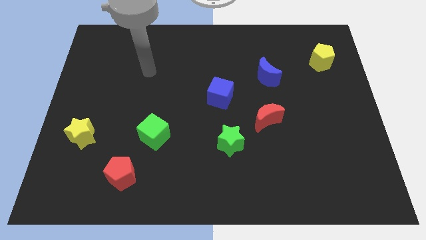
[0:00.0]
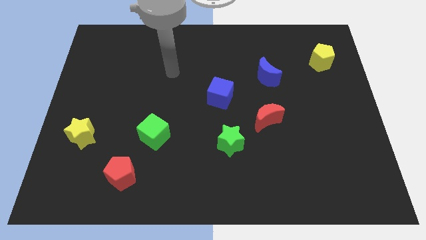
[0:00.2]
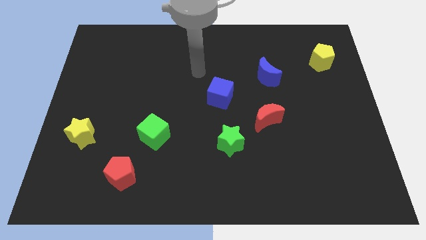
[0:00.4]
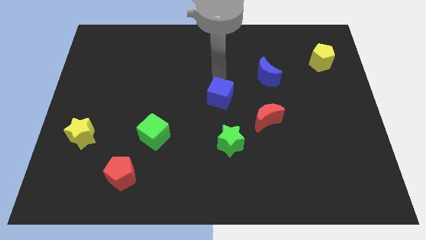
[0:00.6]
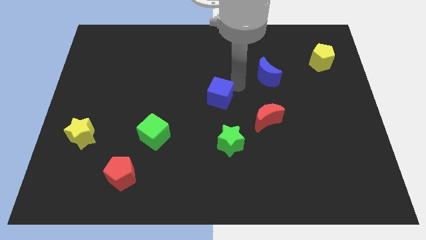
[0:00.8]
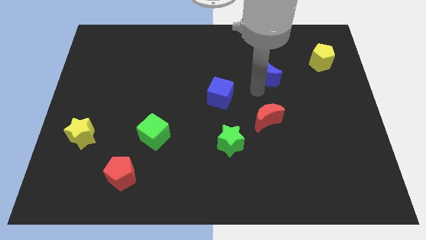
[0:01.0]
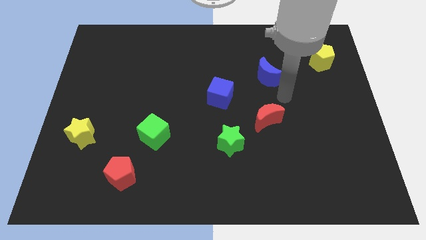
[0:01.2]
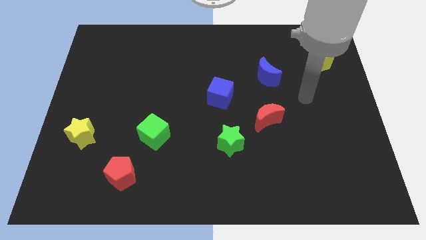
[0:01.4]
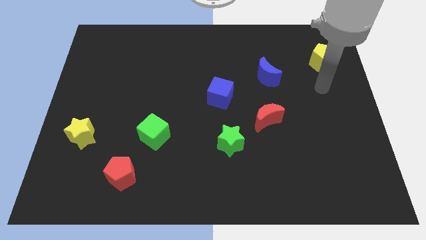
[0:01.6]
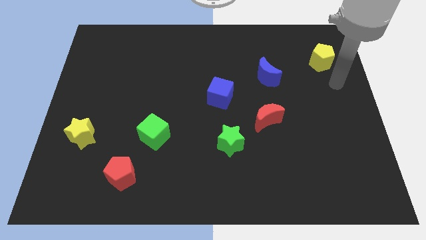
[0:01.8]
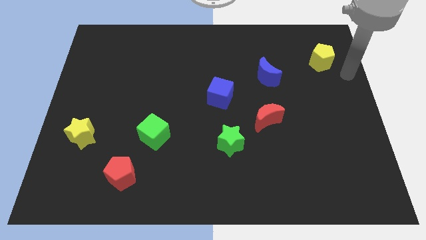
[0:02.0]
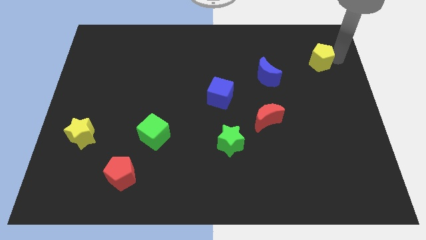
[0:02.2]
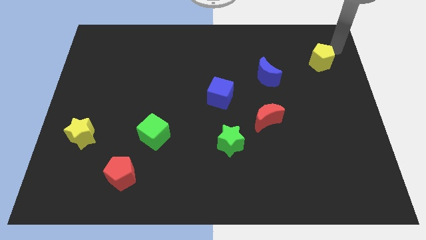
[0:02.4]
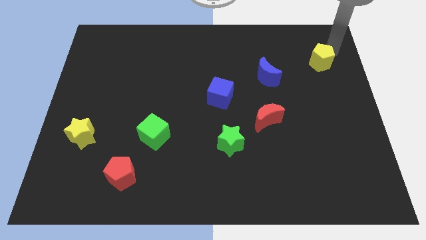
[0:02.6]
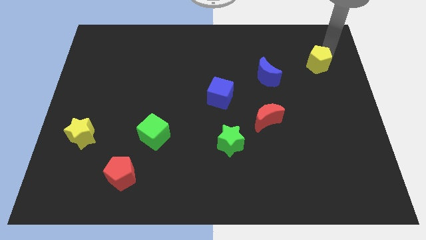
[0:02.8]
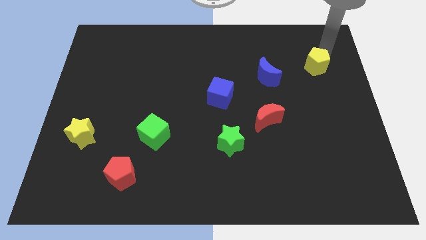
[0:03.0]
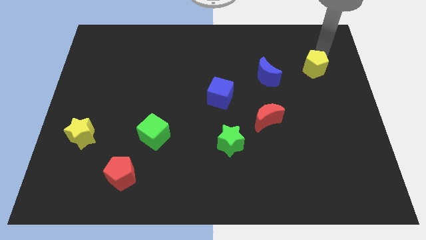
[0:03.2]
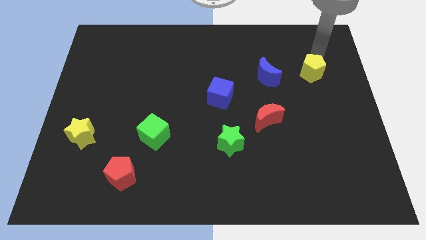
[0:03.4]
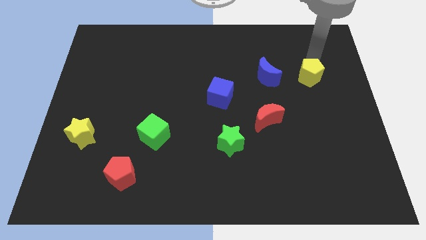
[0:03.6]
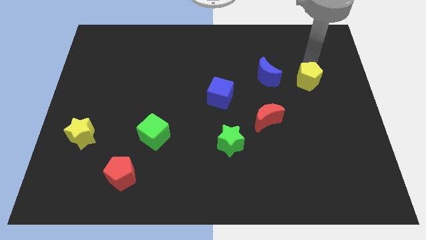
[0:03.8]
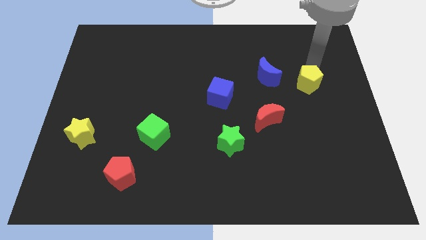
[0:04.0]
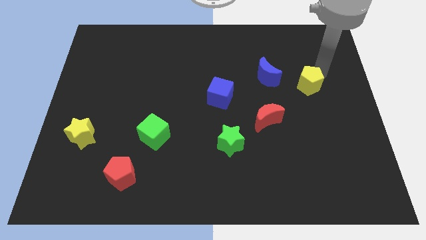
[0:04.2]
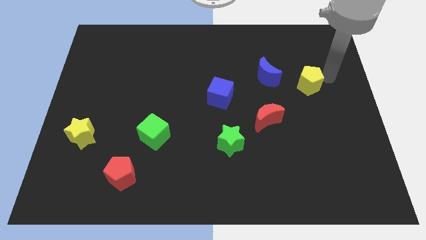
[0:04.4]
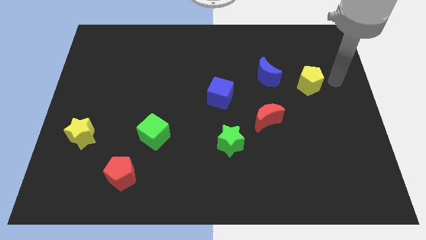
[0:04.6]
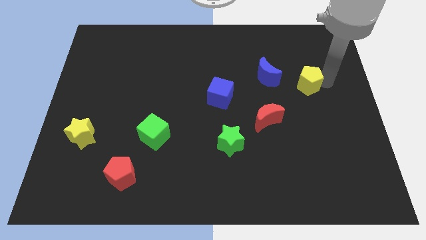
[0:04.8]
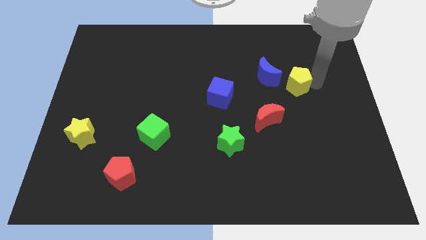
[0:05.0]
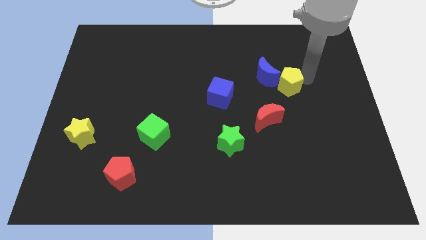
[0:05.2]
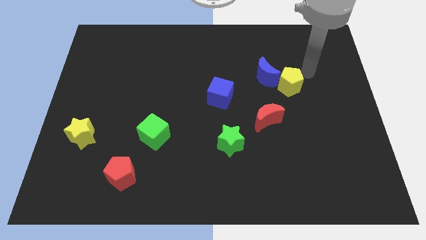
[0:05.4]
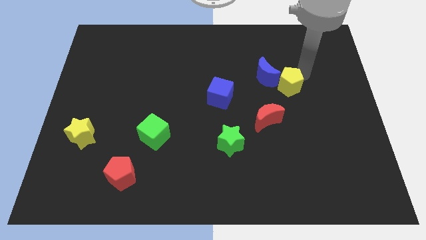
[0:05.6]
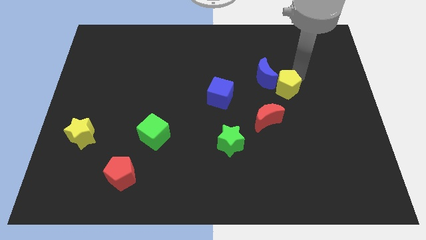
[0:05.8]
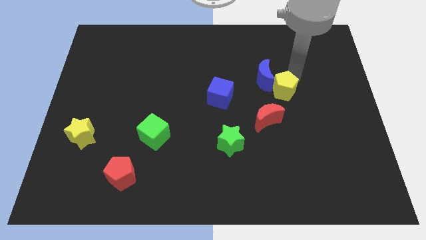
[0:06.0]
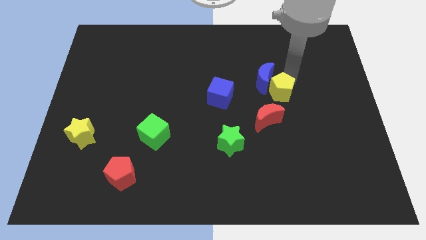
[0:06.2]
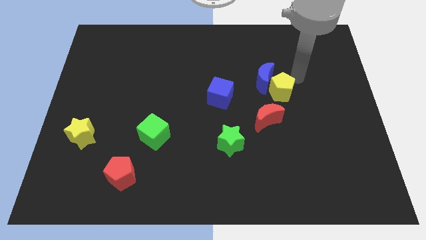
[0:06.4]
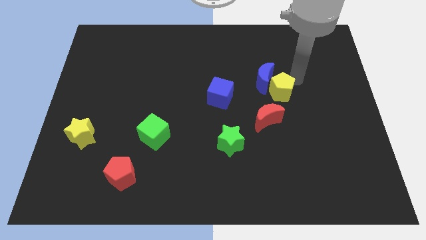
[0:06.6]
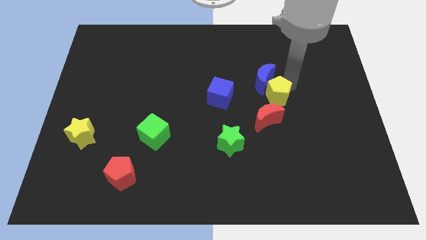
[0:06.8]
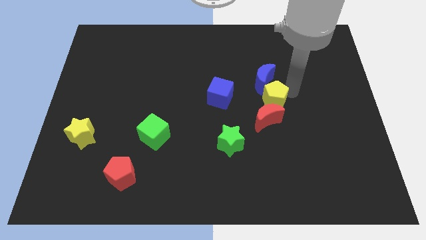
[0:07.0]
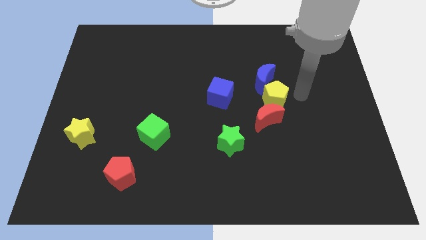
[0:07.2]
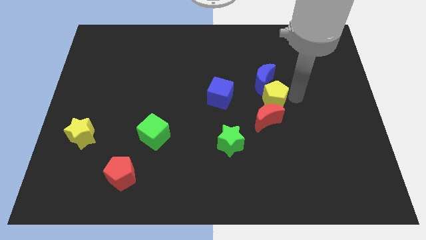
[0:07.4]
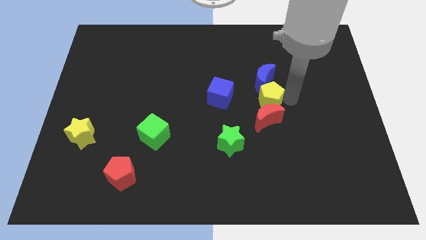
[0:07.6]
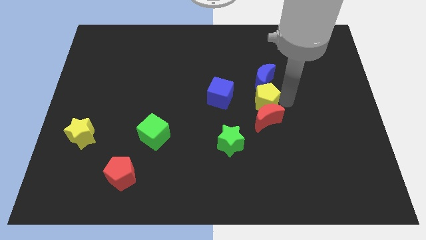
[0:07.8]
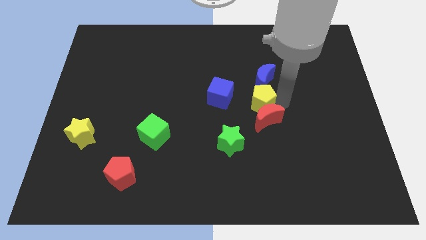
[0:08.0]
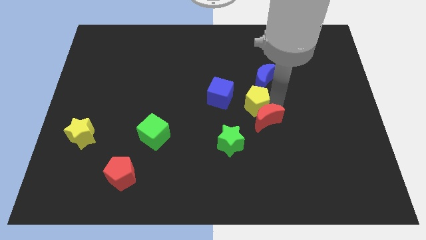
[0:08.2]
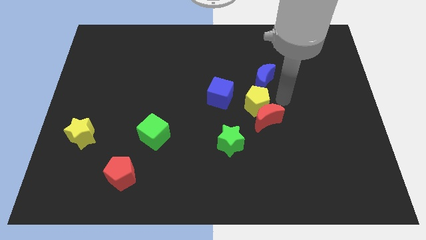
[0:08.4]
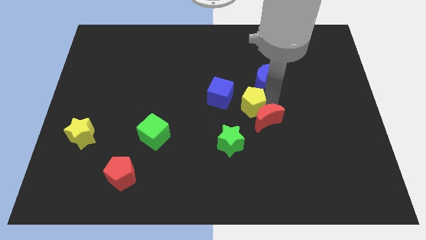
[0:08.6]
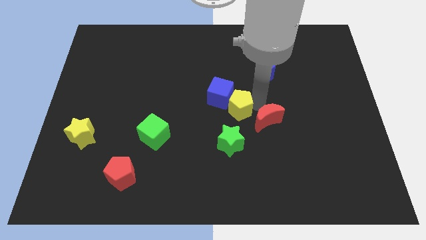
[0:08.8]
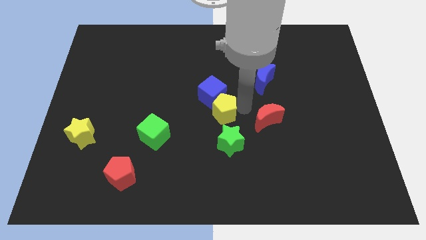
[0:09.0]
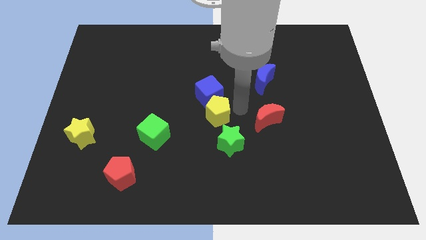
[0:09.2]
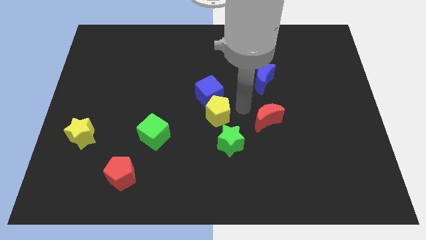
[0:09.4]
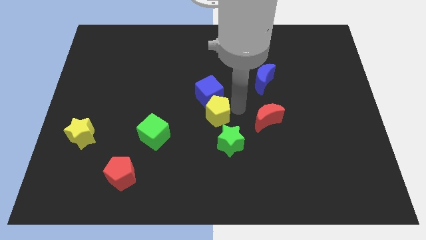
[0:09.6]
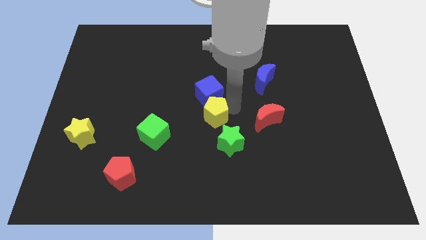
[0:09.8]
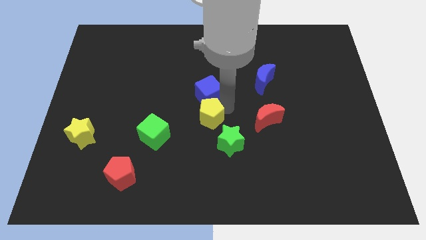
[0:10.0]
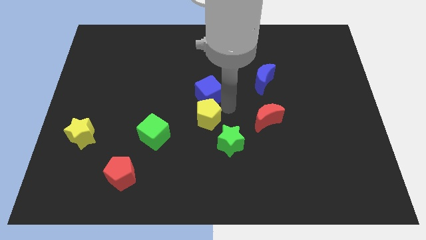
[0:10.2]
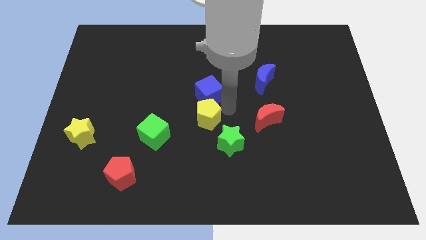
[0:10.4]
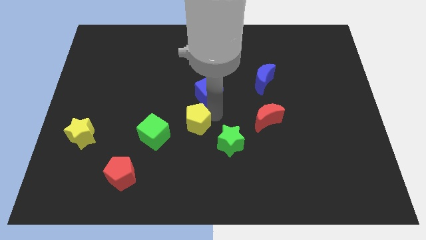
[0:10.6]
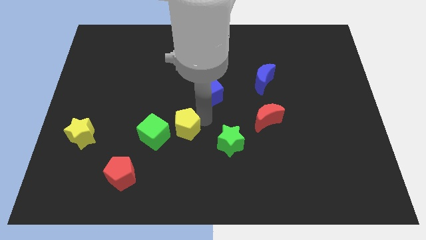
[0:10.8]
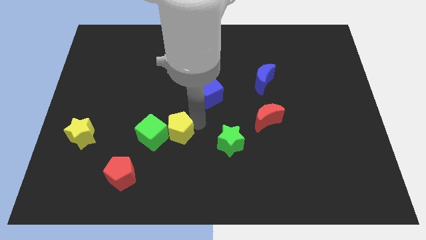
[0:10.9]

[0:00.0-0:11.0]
push the yellow pentagon close to the green cube

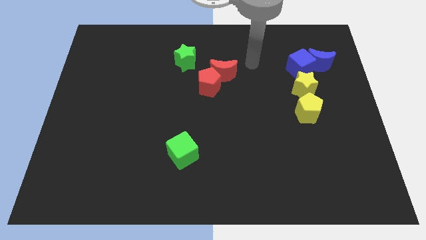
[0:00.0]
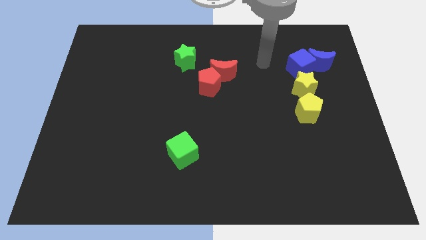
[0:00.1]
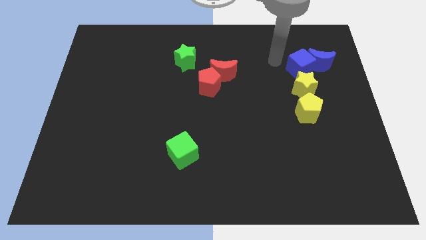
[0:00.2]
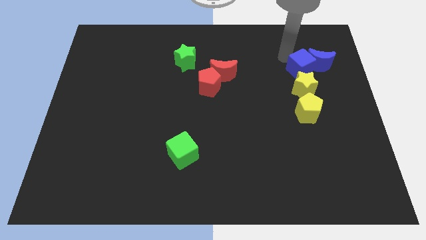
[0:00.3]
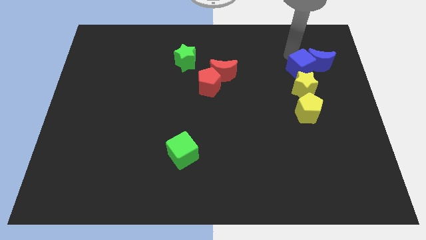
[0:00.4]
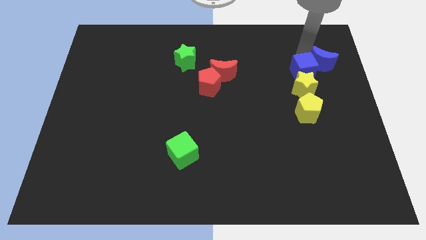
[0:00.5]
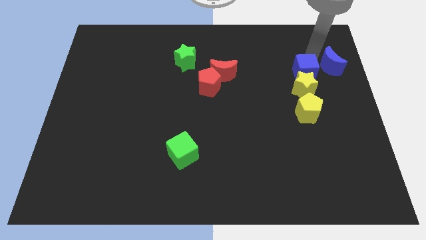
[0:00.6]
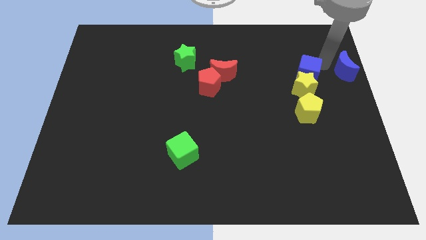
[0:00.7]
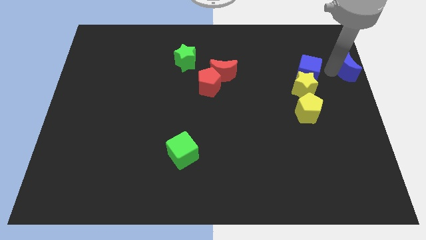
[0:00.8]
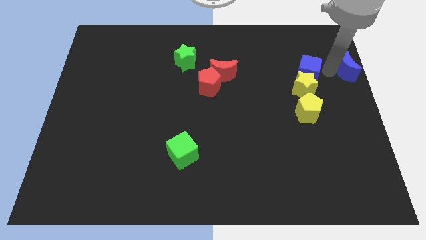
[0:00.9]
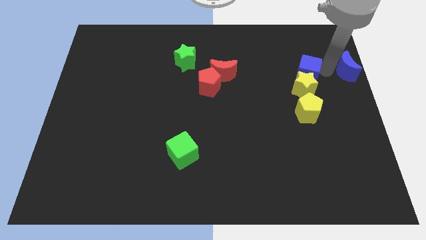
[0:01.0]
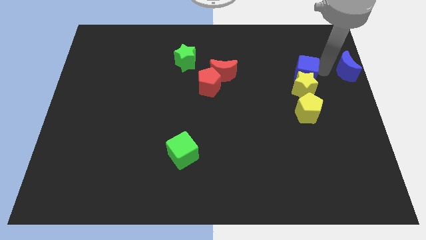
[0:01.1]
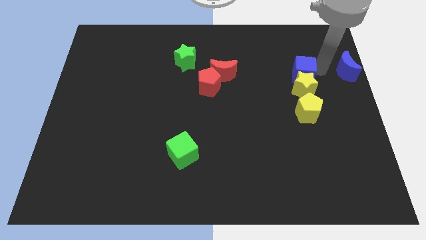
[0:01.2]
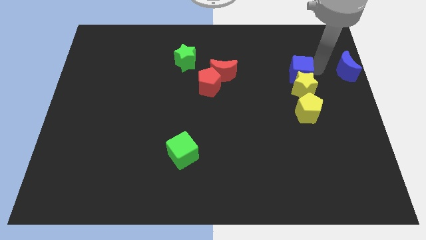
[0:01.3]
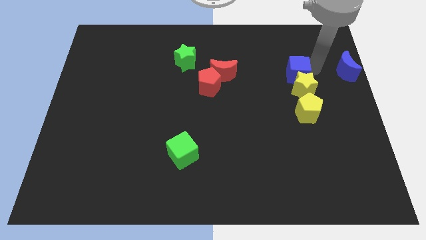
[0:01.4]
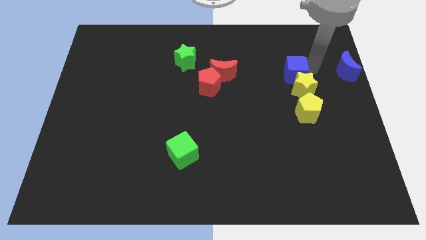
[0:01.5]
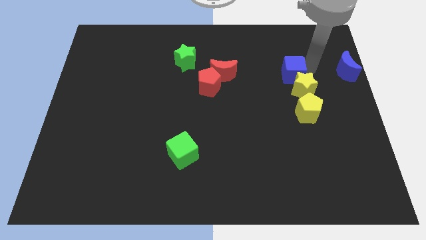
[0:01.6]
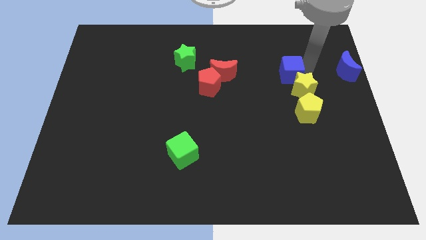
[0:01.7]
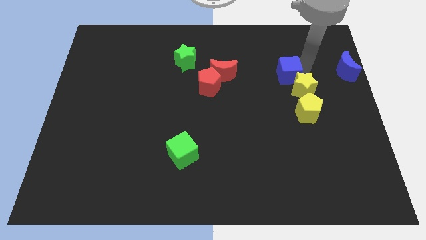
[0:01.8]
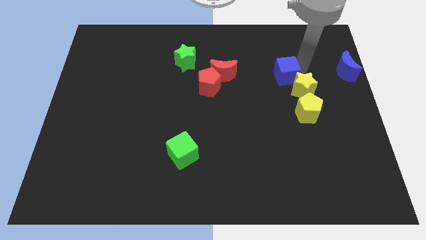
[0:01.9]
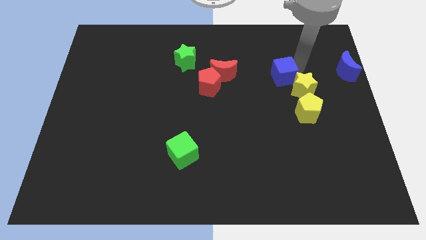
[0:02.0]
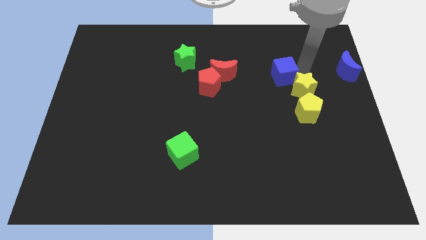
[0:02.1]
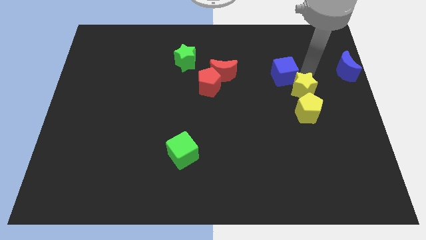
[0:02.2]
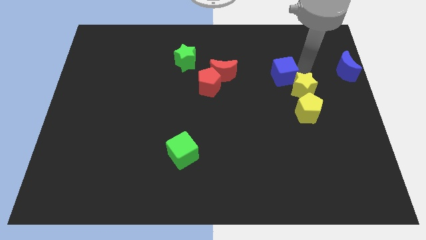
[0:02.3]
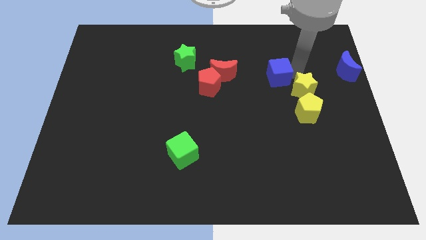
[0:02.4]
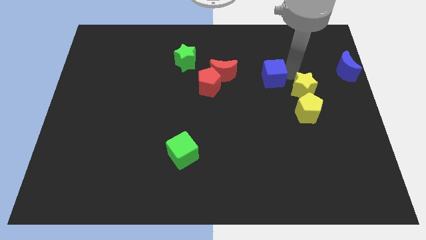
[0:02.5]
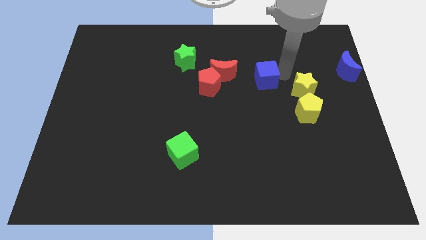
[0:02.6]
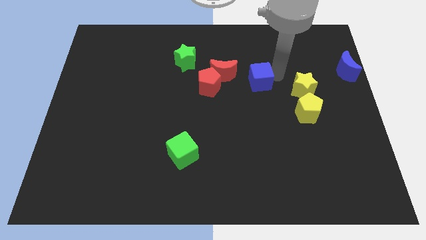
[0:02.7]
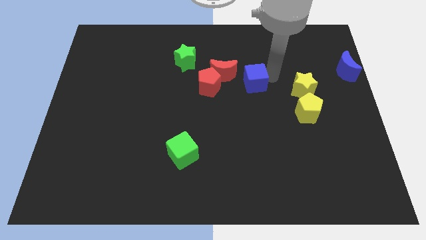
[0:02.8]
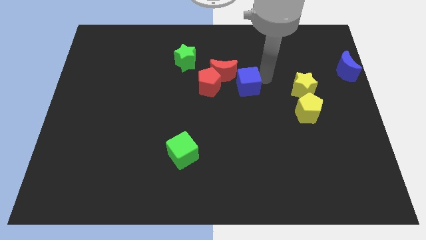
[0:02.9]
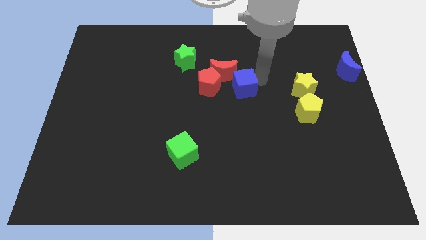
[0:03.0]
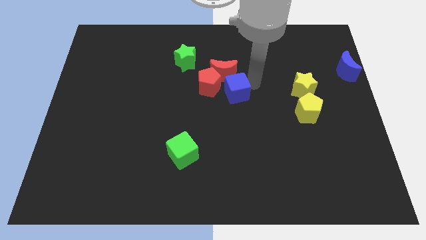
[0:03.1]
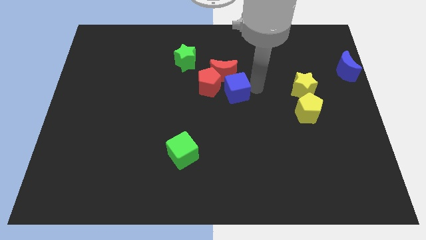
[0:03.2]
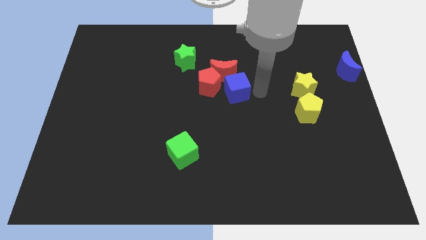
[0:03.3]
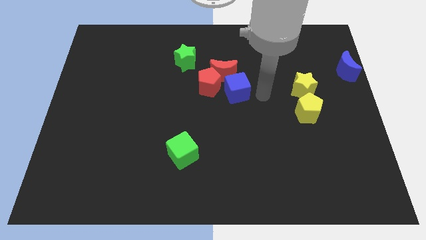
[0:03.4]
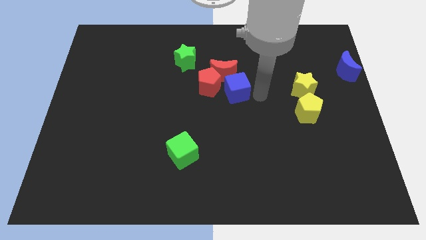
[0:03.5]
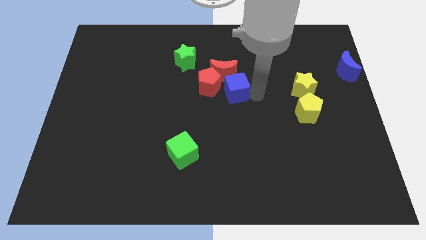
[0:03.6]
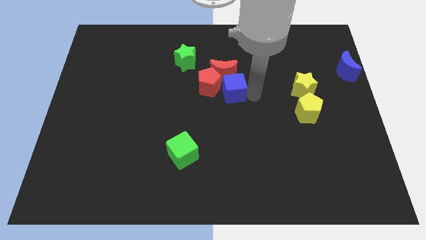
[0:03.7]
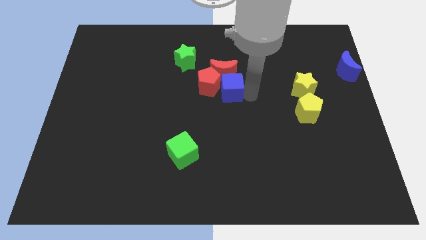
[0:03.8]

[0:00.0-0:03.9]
move the blue cube to the red pentagon
